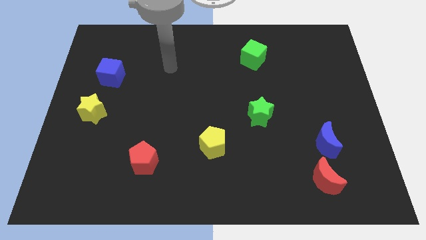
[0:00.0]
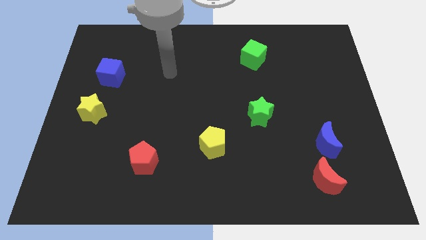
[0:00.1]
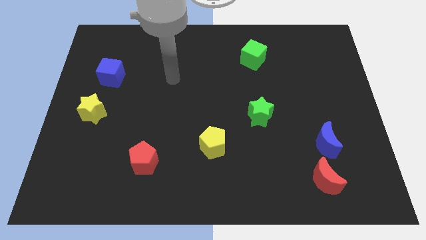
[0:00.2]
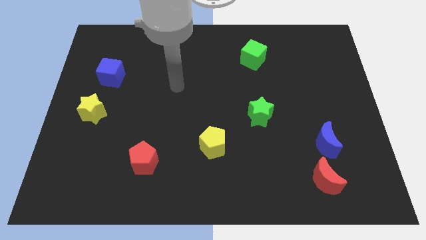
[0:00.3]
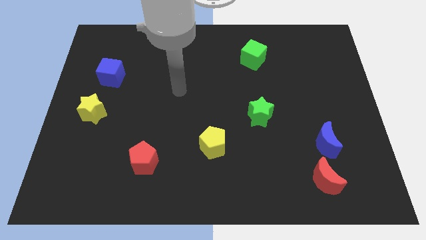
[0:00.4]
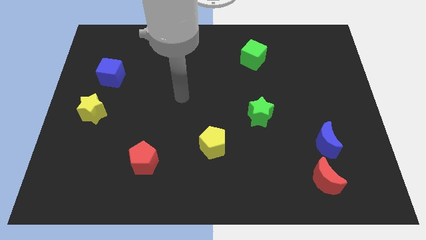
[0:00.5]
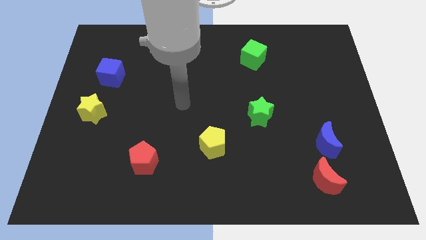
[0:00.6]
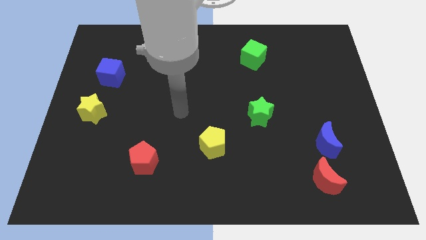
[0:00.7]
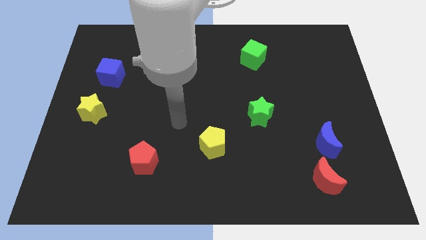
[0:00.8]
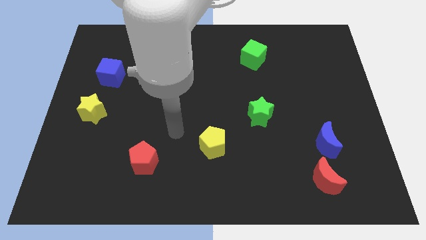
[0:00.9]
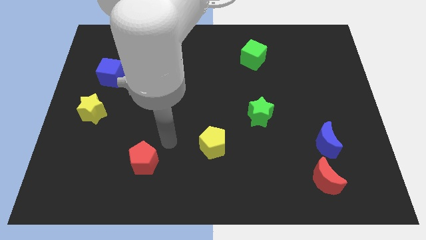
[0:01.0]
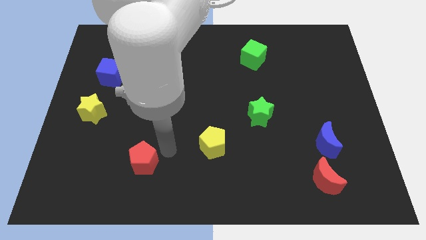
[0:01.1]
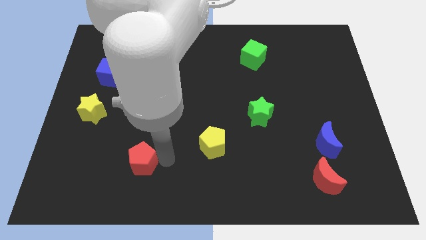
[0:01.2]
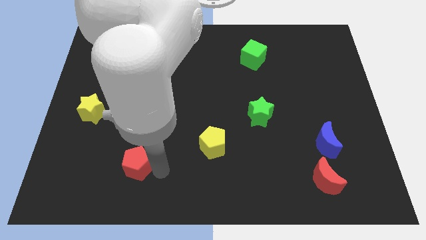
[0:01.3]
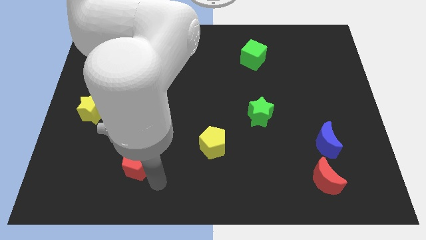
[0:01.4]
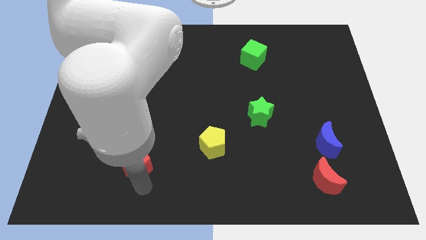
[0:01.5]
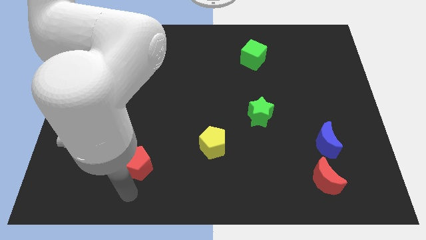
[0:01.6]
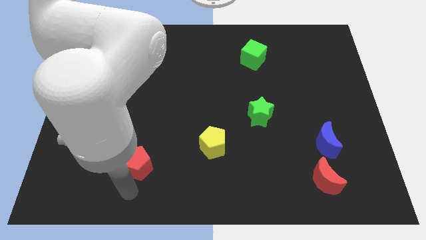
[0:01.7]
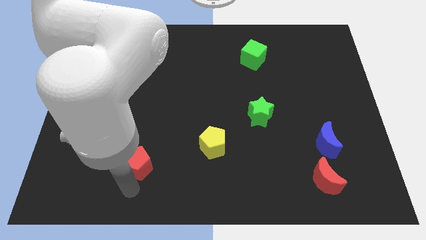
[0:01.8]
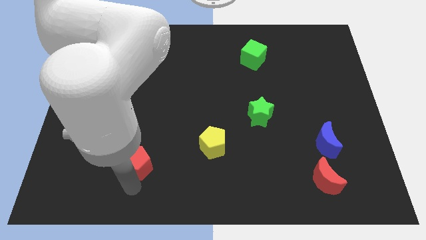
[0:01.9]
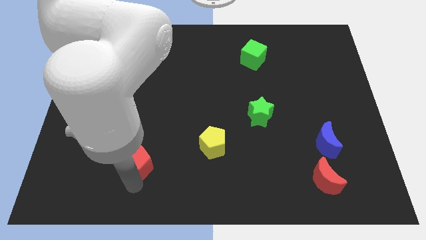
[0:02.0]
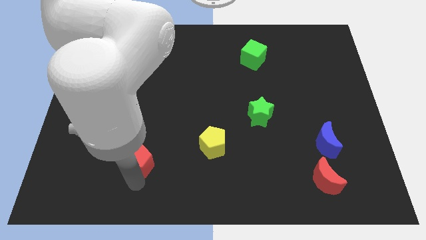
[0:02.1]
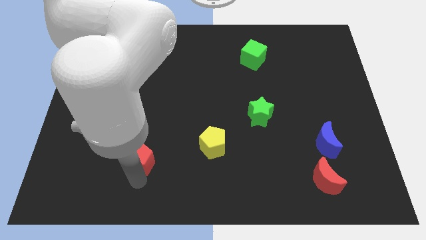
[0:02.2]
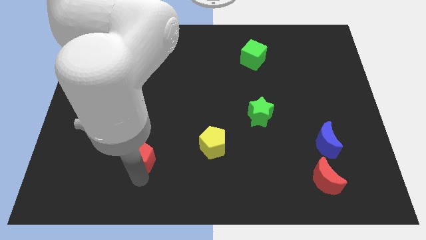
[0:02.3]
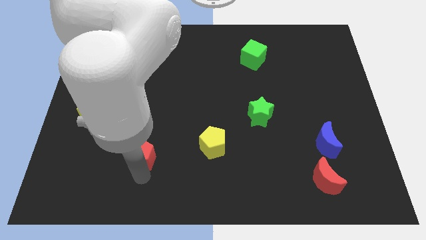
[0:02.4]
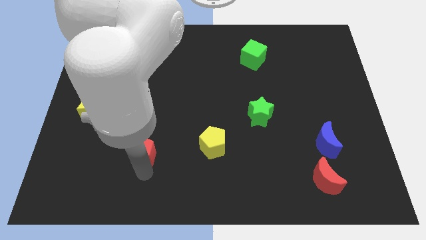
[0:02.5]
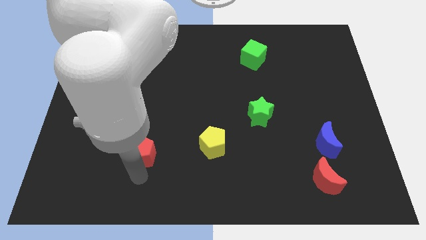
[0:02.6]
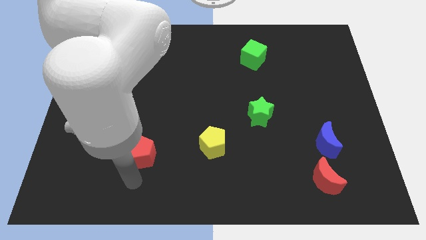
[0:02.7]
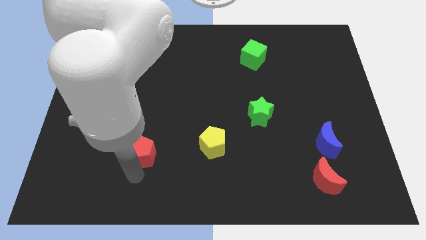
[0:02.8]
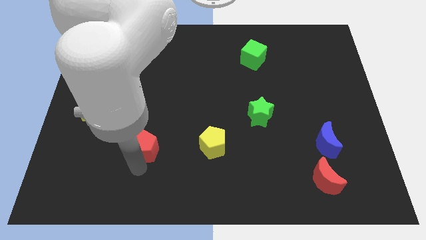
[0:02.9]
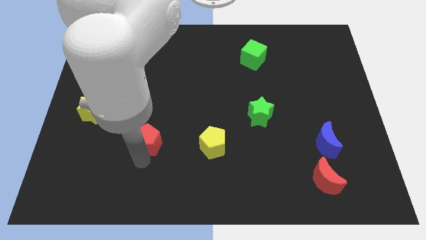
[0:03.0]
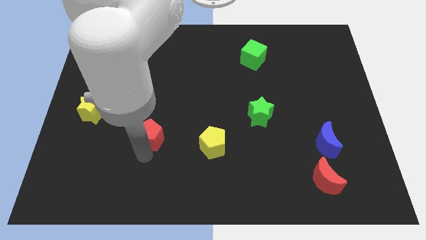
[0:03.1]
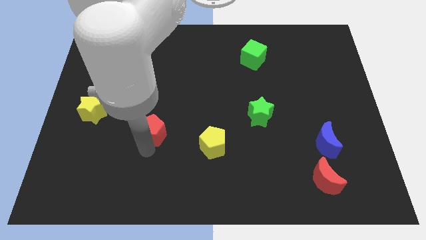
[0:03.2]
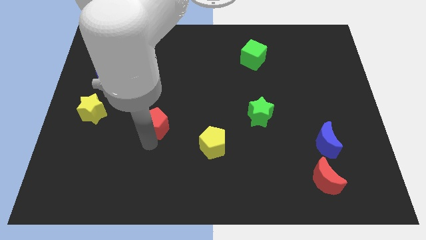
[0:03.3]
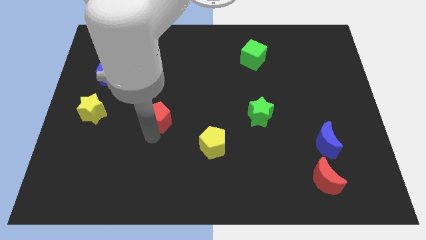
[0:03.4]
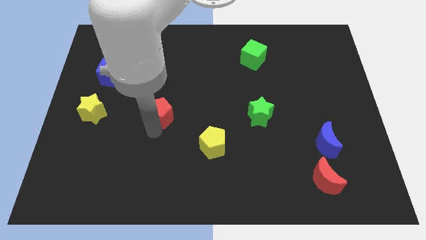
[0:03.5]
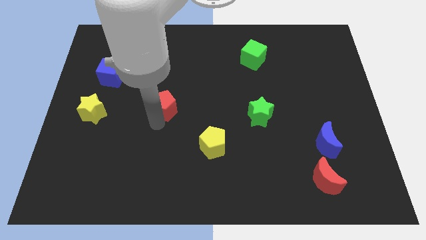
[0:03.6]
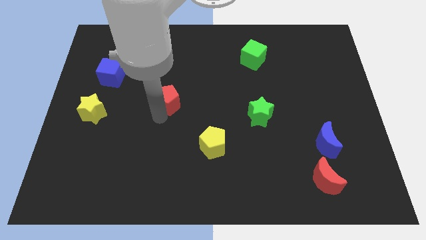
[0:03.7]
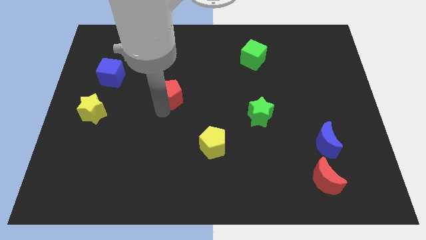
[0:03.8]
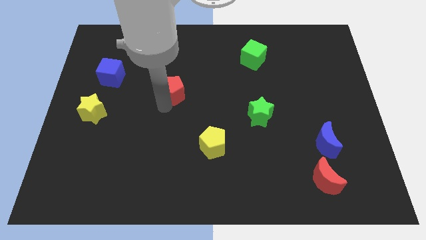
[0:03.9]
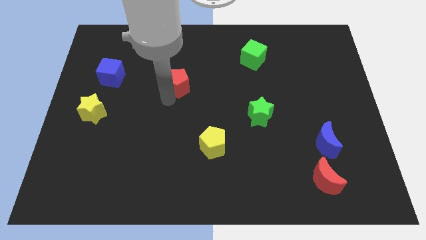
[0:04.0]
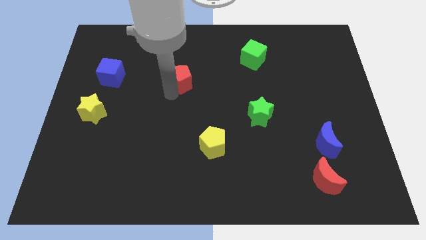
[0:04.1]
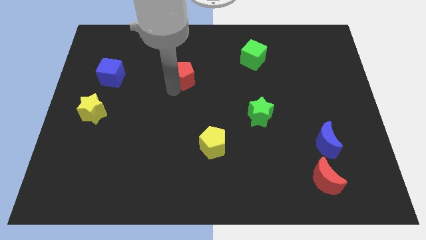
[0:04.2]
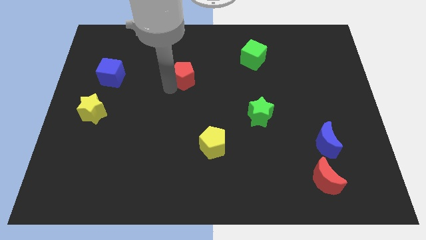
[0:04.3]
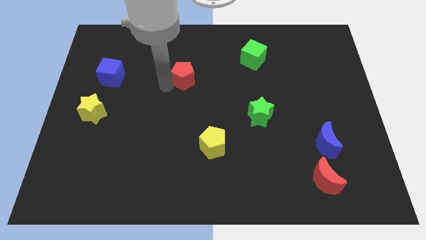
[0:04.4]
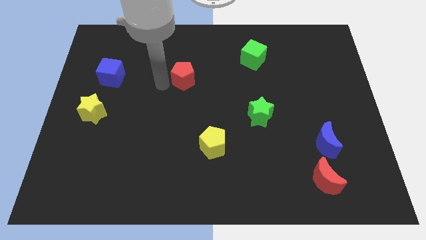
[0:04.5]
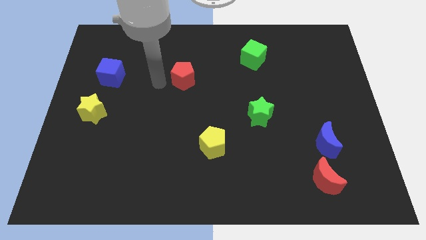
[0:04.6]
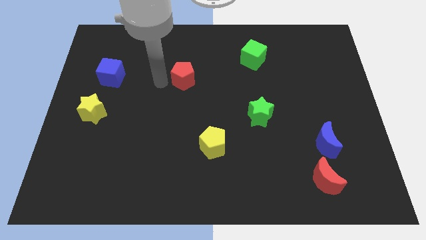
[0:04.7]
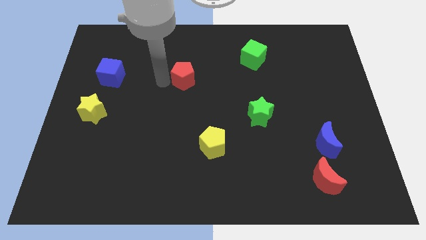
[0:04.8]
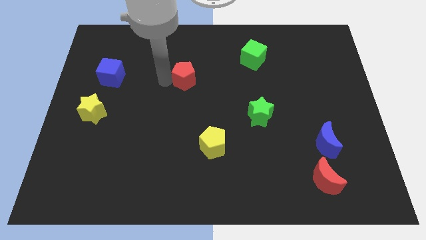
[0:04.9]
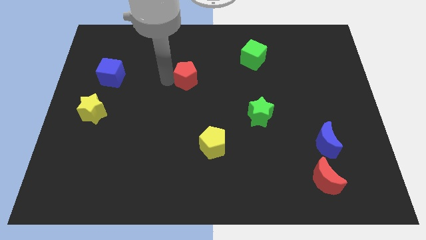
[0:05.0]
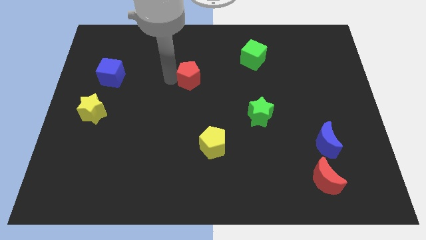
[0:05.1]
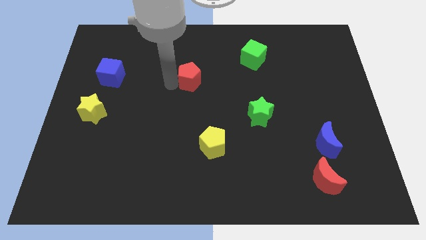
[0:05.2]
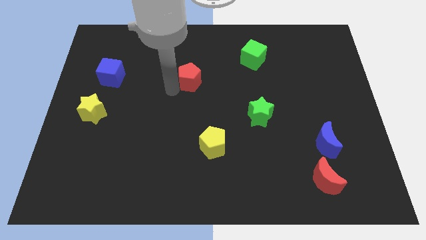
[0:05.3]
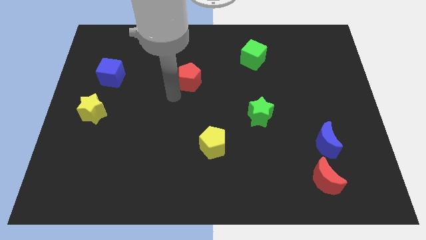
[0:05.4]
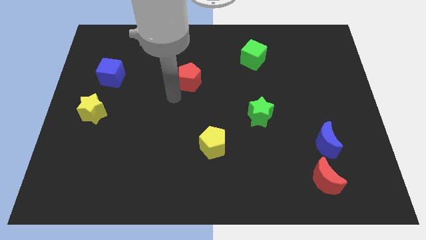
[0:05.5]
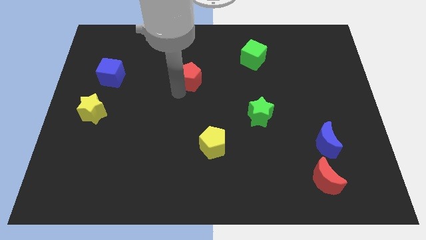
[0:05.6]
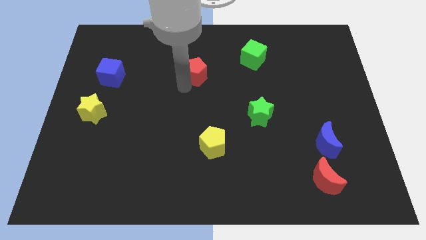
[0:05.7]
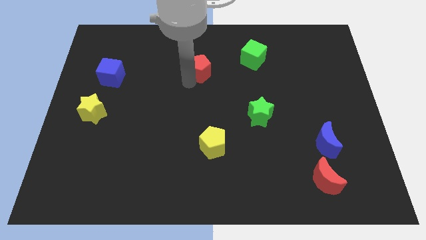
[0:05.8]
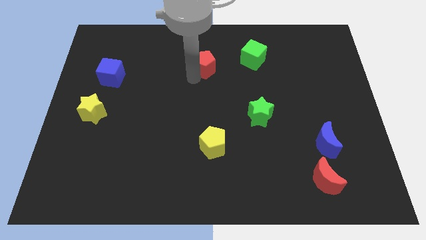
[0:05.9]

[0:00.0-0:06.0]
move the red pentagon left of the green cube

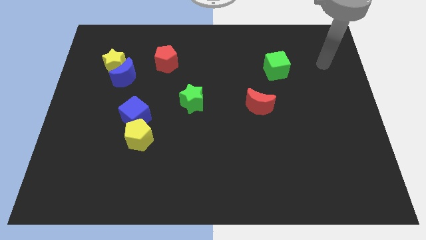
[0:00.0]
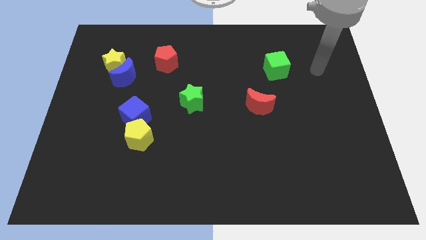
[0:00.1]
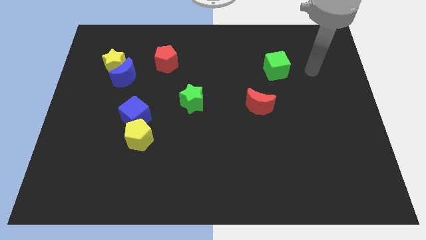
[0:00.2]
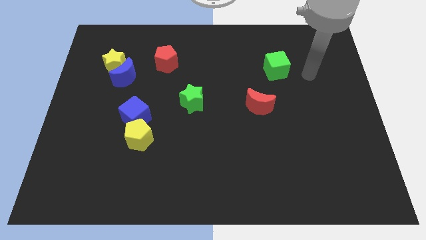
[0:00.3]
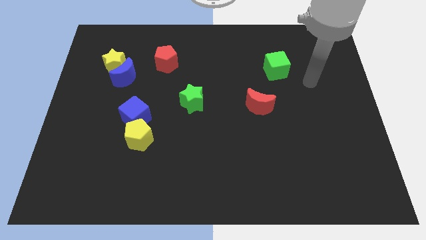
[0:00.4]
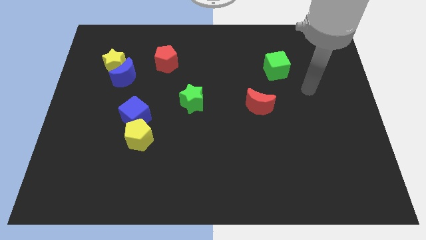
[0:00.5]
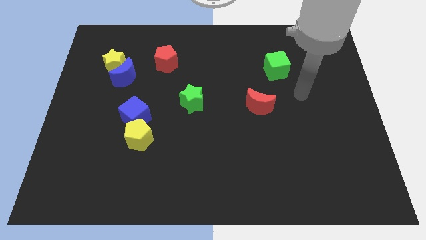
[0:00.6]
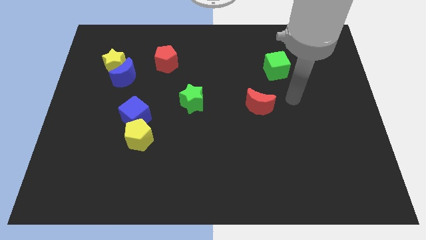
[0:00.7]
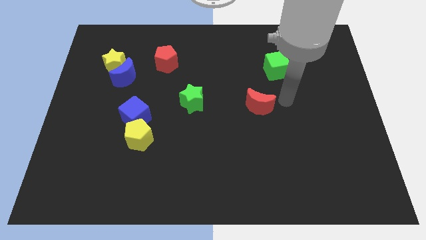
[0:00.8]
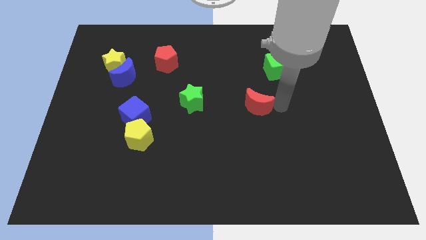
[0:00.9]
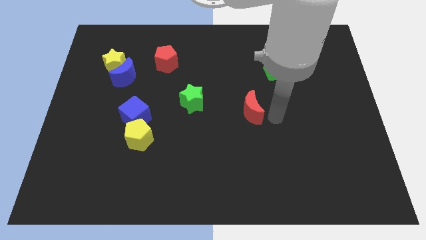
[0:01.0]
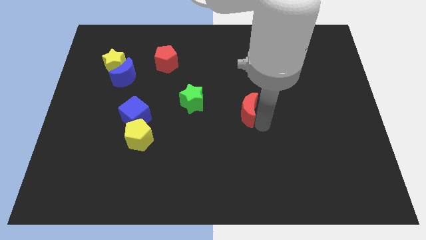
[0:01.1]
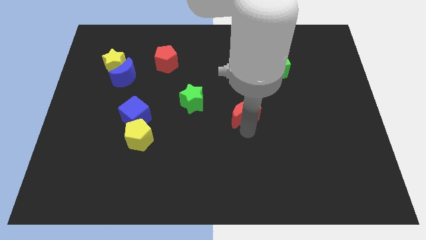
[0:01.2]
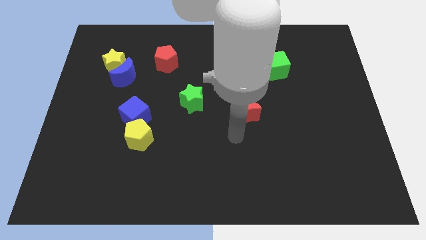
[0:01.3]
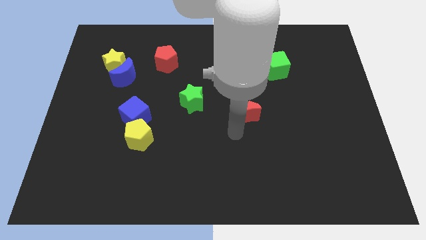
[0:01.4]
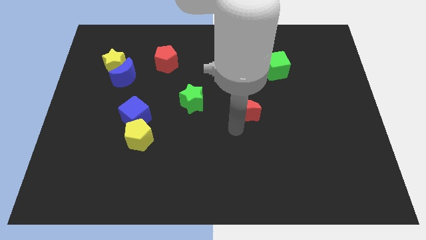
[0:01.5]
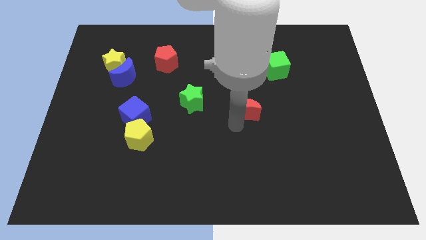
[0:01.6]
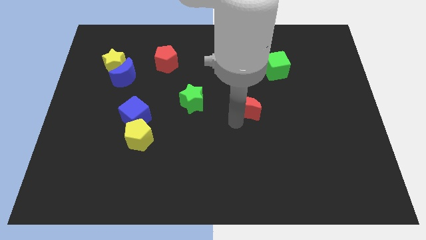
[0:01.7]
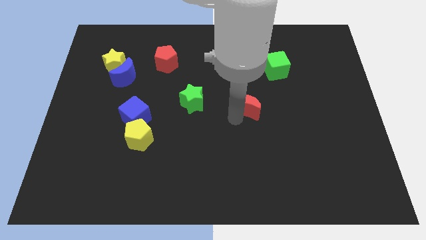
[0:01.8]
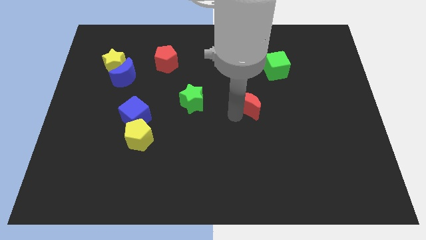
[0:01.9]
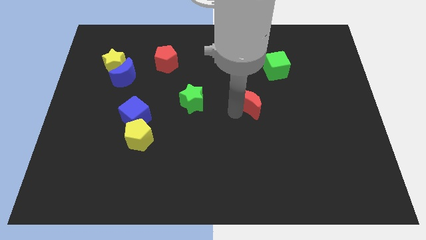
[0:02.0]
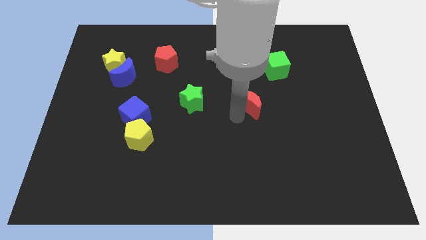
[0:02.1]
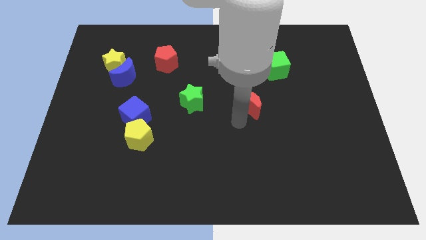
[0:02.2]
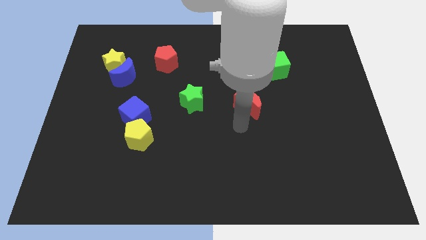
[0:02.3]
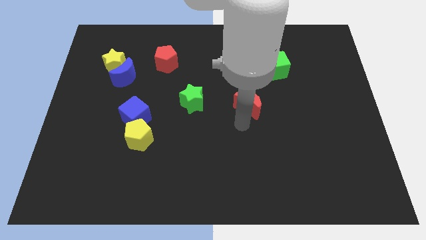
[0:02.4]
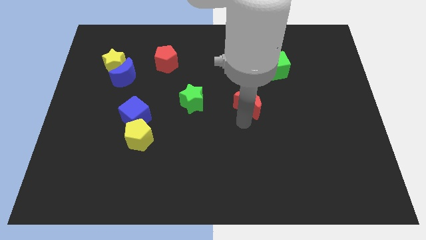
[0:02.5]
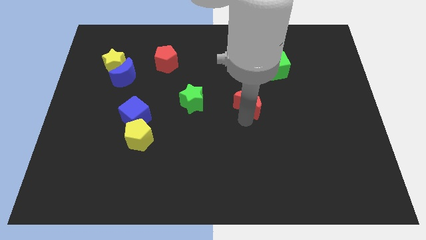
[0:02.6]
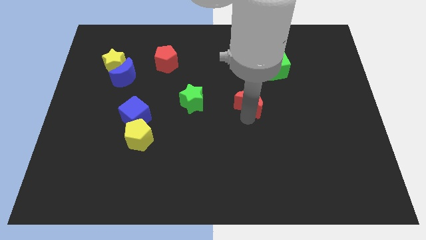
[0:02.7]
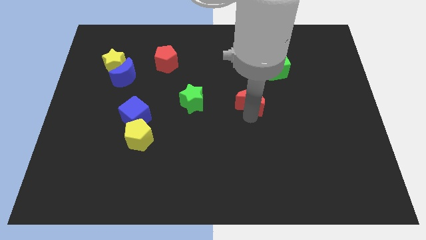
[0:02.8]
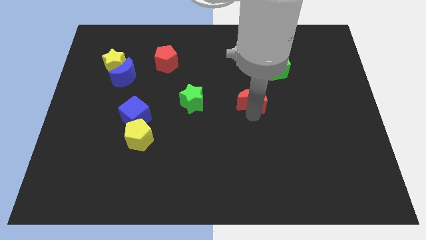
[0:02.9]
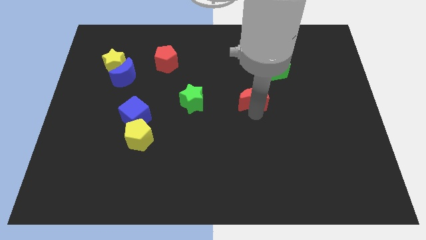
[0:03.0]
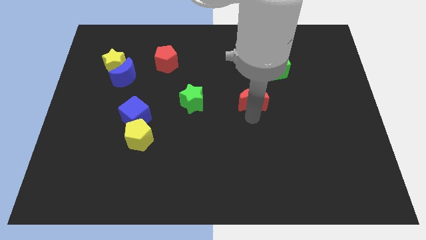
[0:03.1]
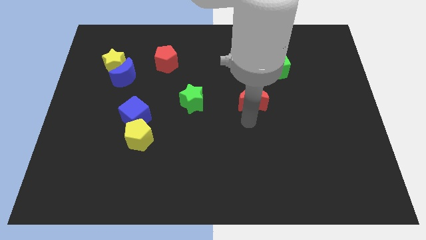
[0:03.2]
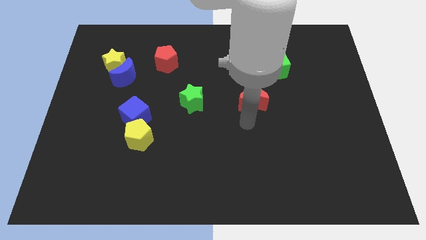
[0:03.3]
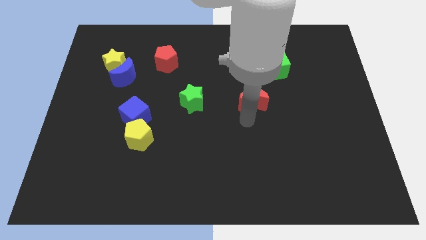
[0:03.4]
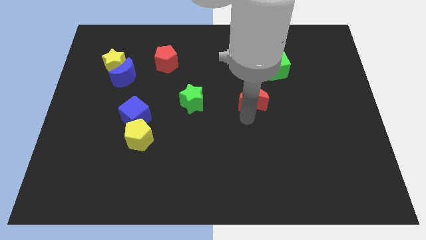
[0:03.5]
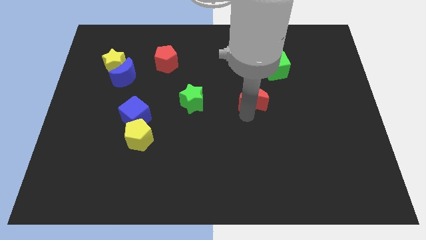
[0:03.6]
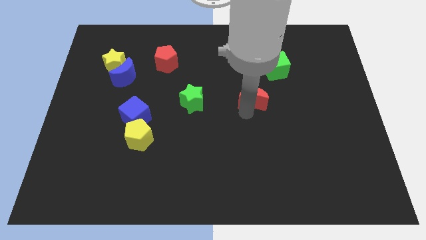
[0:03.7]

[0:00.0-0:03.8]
push the red moon to the bottom left side of the green cube
